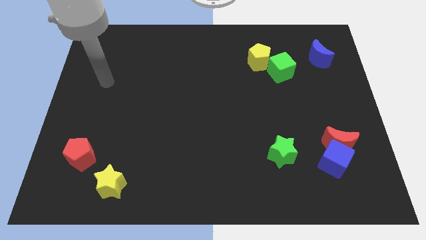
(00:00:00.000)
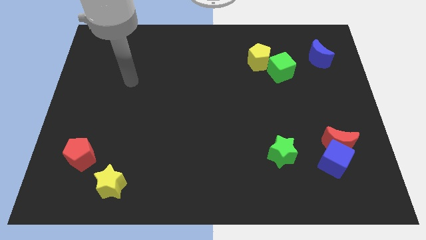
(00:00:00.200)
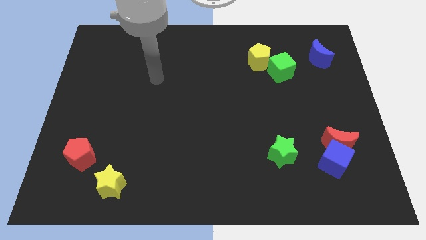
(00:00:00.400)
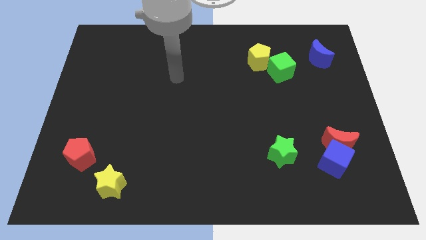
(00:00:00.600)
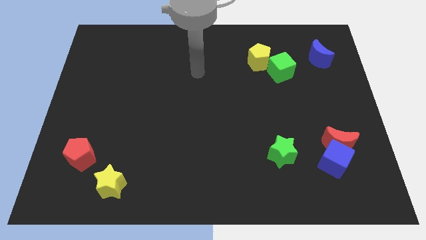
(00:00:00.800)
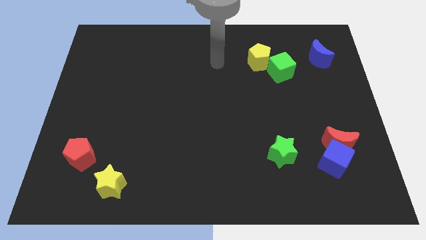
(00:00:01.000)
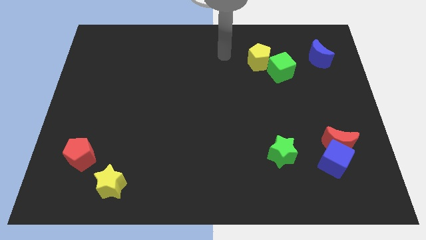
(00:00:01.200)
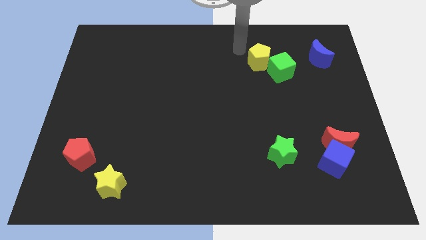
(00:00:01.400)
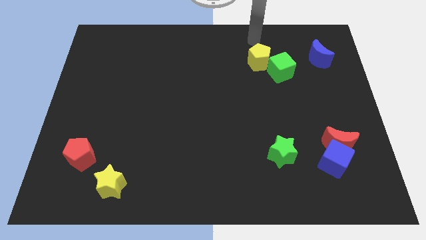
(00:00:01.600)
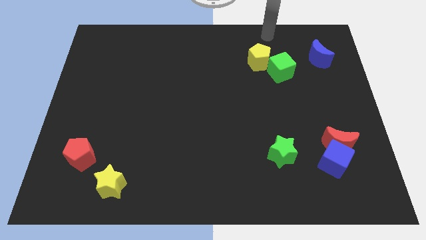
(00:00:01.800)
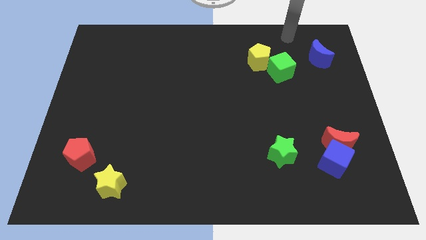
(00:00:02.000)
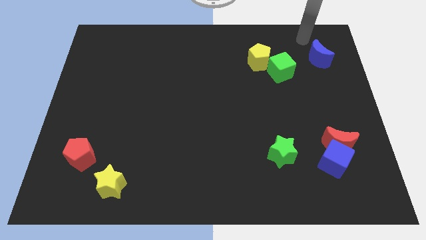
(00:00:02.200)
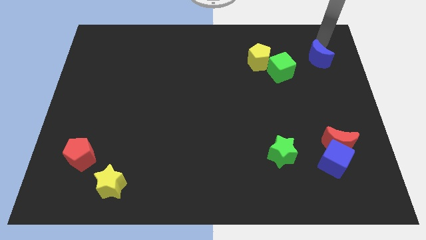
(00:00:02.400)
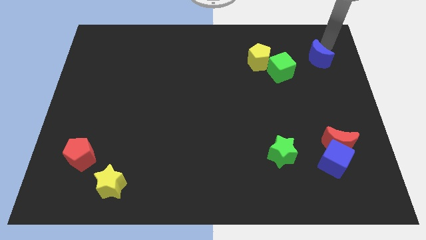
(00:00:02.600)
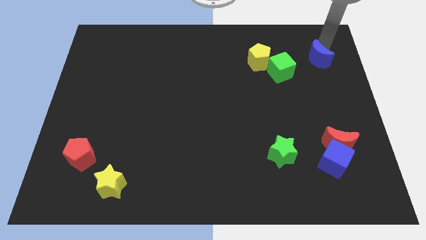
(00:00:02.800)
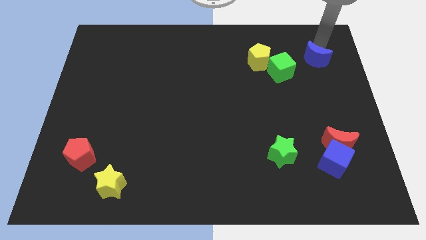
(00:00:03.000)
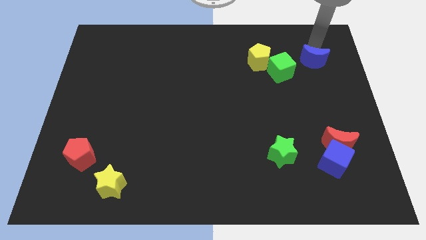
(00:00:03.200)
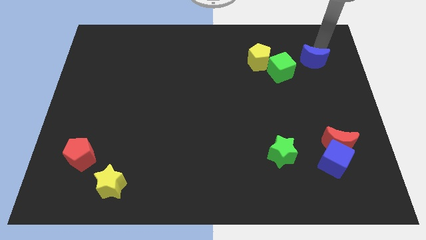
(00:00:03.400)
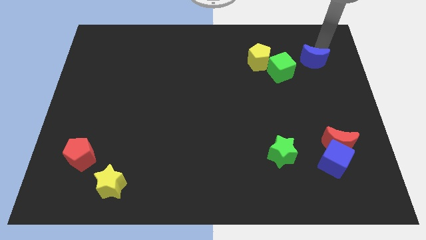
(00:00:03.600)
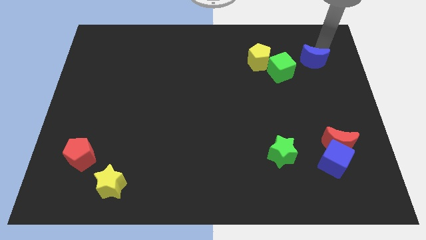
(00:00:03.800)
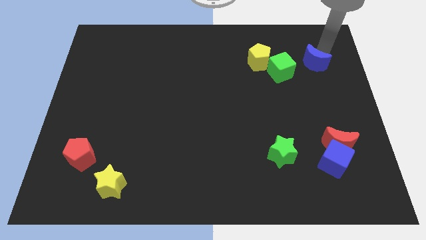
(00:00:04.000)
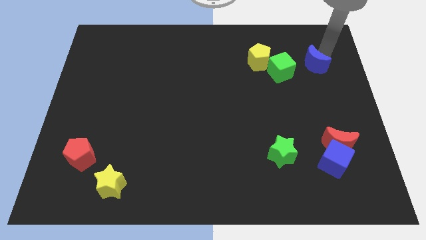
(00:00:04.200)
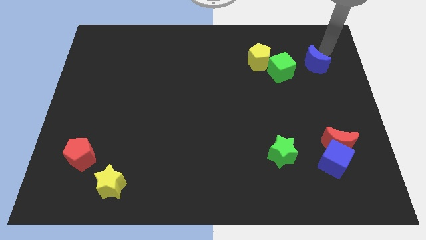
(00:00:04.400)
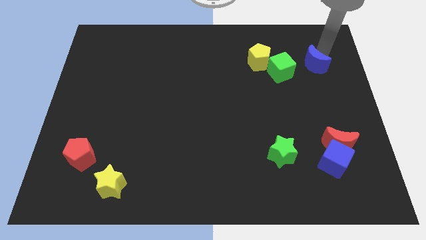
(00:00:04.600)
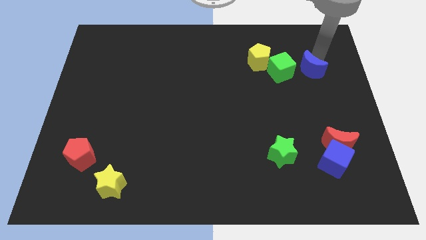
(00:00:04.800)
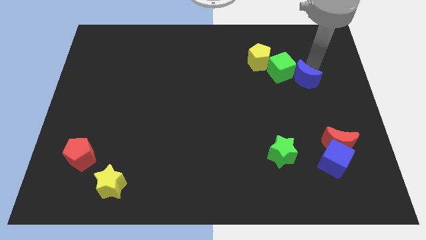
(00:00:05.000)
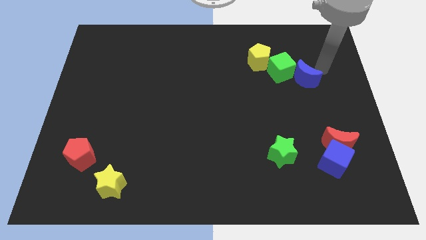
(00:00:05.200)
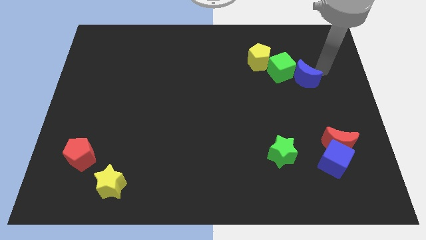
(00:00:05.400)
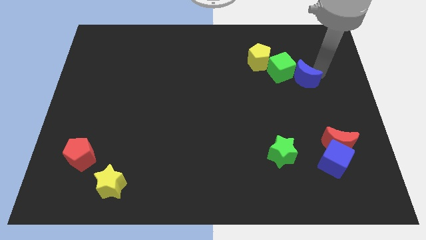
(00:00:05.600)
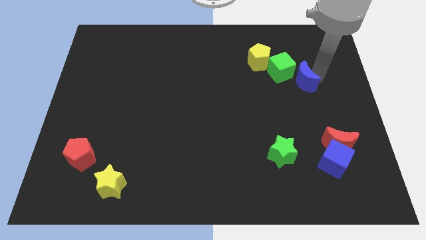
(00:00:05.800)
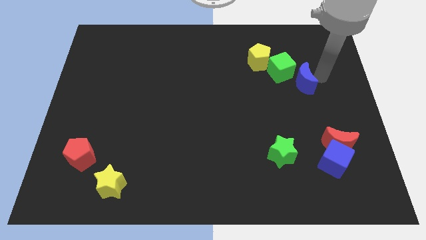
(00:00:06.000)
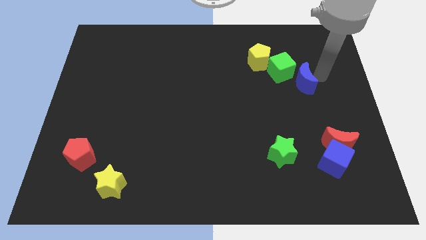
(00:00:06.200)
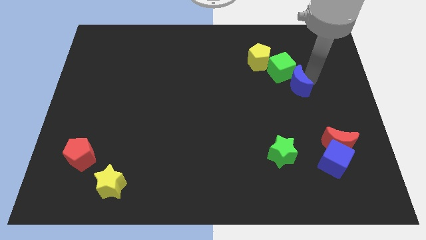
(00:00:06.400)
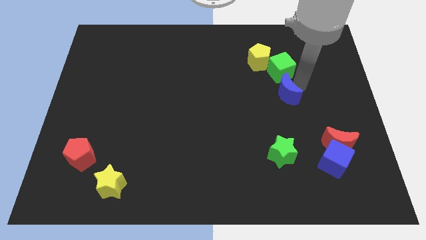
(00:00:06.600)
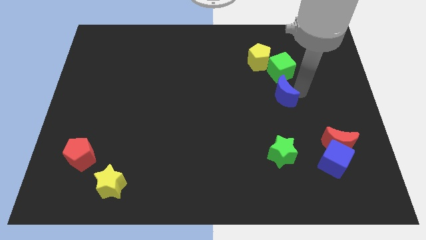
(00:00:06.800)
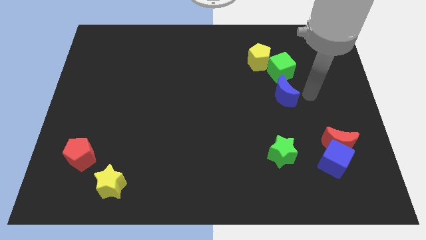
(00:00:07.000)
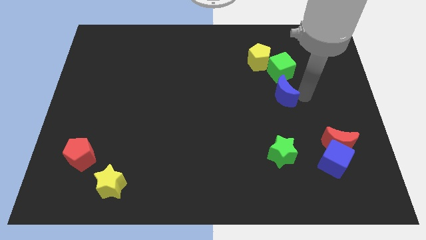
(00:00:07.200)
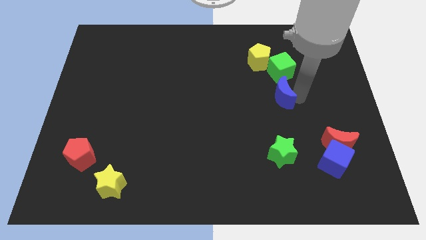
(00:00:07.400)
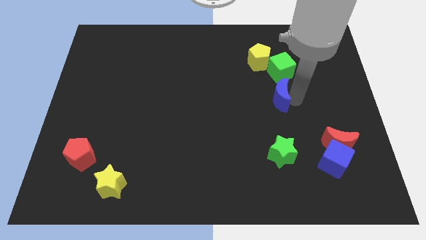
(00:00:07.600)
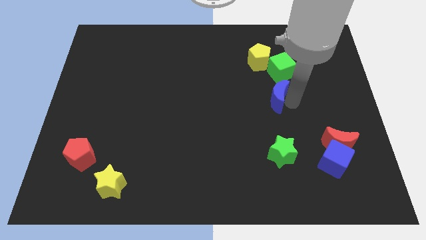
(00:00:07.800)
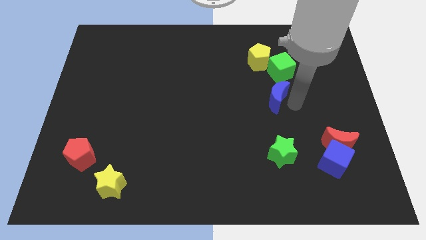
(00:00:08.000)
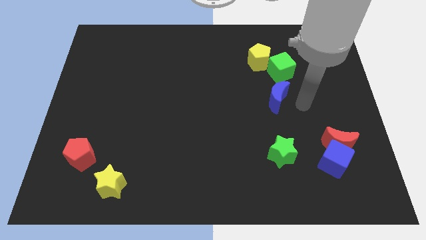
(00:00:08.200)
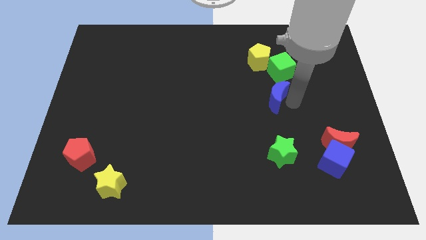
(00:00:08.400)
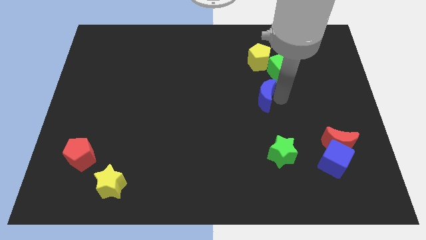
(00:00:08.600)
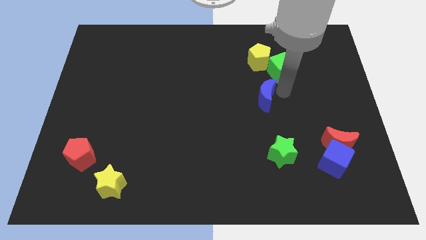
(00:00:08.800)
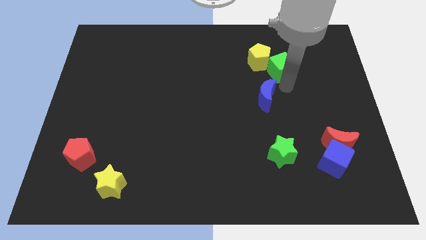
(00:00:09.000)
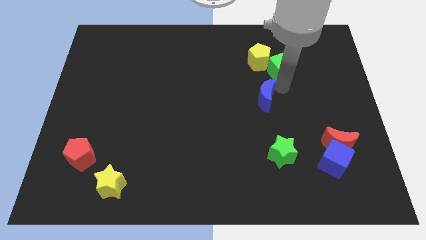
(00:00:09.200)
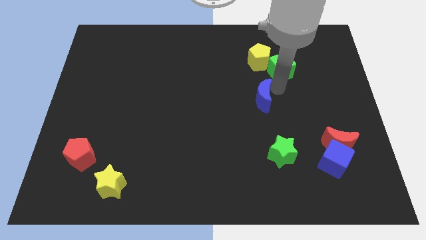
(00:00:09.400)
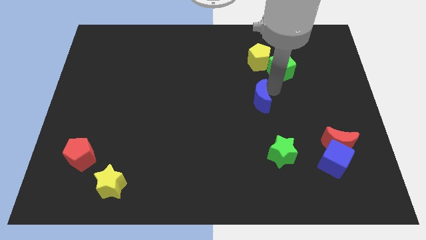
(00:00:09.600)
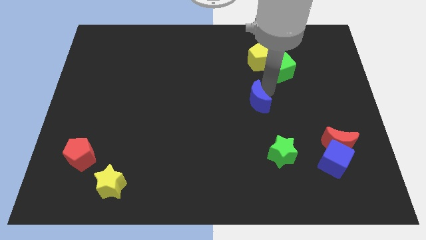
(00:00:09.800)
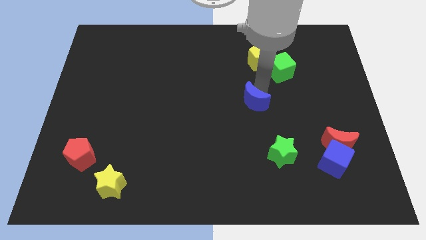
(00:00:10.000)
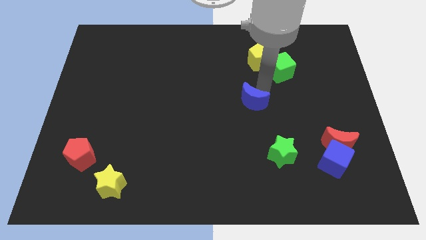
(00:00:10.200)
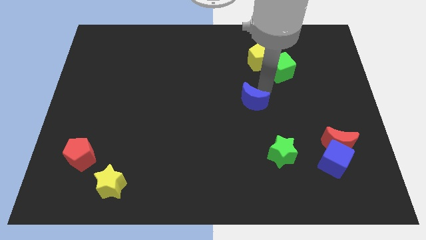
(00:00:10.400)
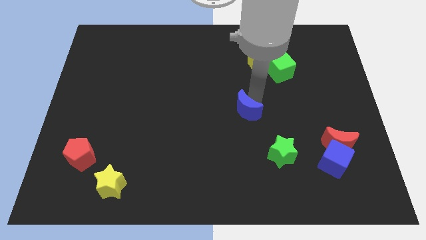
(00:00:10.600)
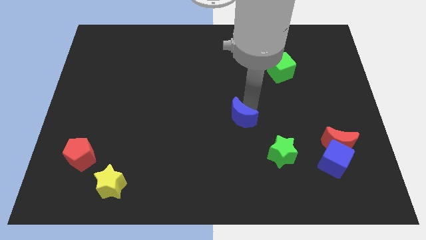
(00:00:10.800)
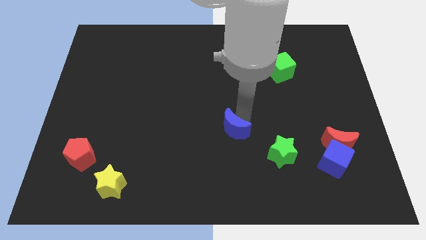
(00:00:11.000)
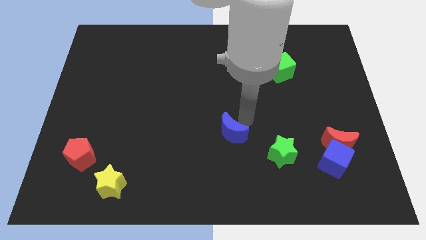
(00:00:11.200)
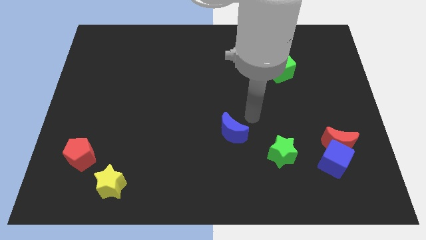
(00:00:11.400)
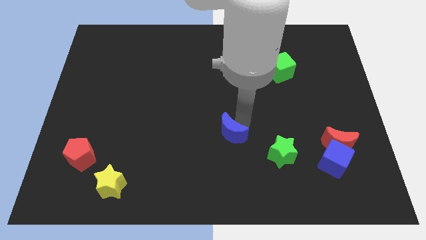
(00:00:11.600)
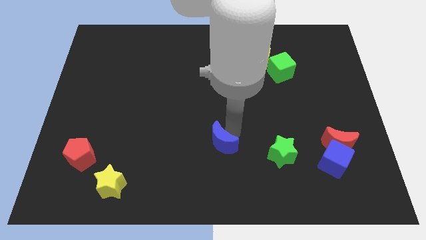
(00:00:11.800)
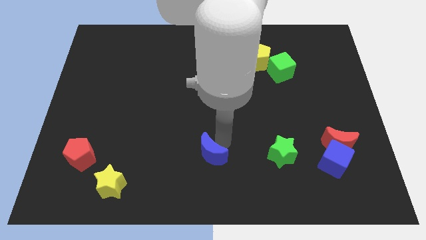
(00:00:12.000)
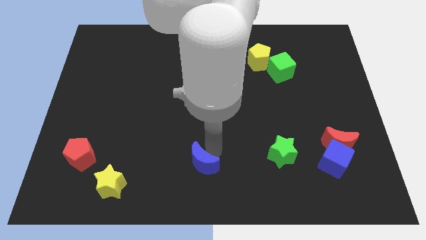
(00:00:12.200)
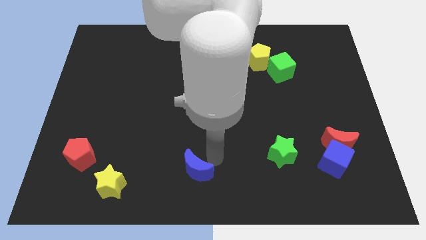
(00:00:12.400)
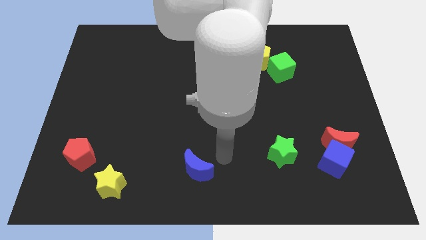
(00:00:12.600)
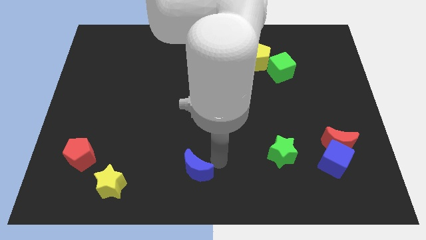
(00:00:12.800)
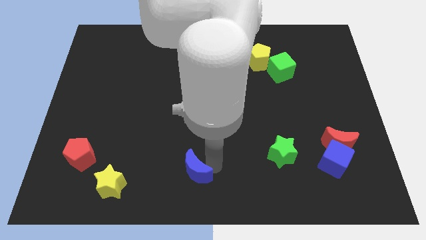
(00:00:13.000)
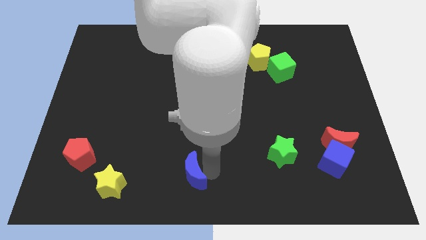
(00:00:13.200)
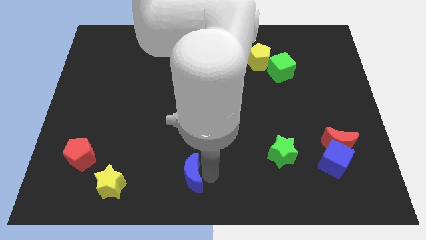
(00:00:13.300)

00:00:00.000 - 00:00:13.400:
put the blue moon right of the yellow star

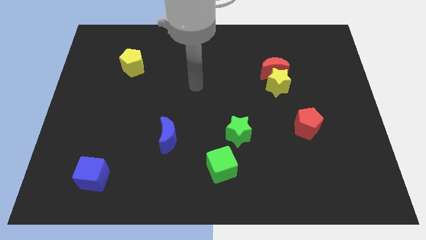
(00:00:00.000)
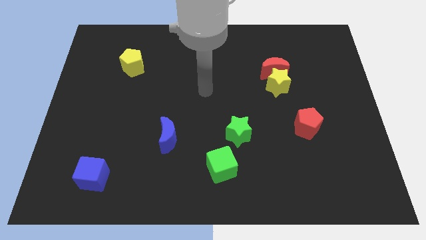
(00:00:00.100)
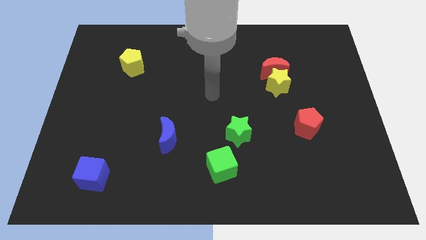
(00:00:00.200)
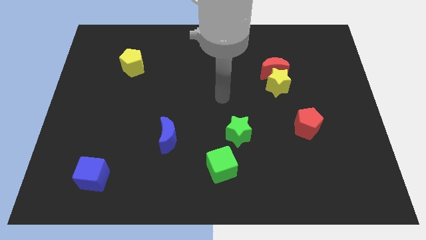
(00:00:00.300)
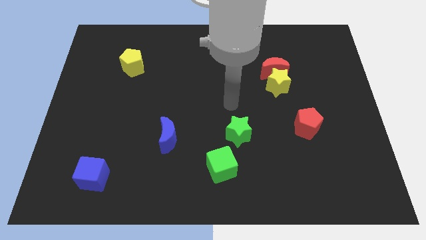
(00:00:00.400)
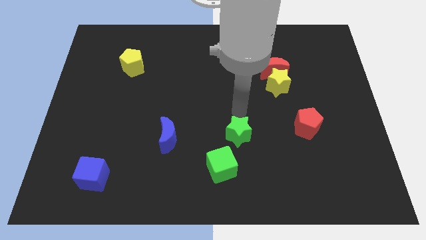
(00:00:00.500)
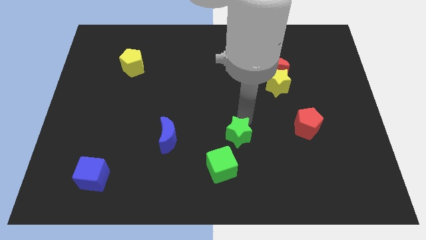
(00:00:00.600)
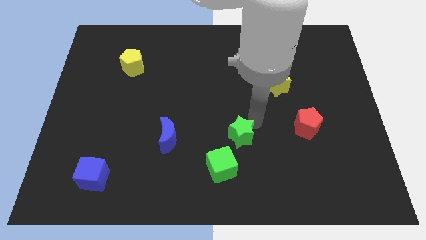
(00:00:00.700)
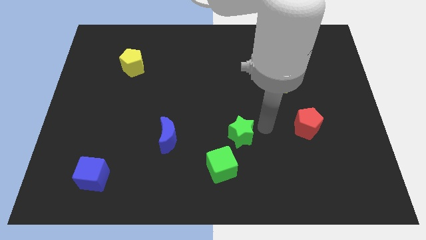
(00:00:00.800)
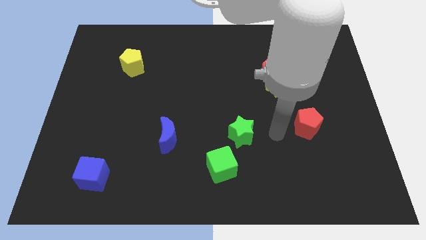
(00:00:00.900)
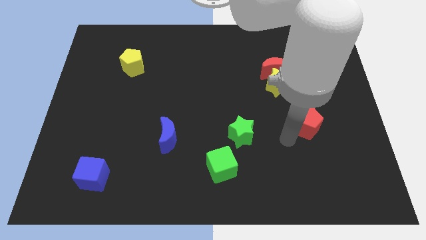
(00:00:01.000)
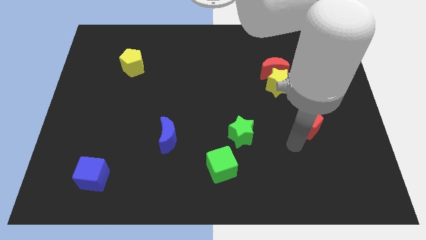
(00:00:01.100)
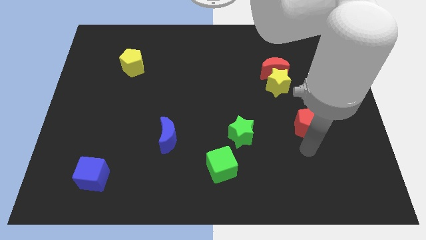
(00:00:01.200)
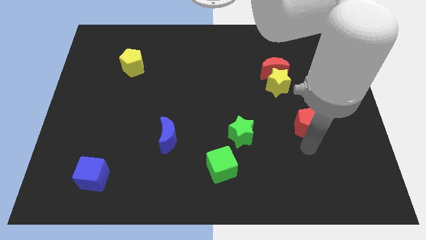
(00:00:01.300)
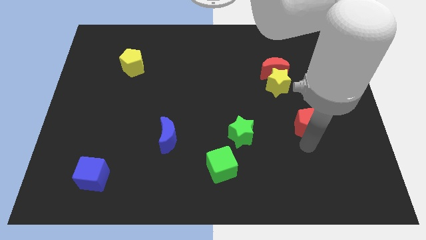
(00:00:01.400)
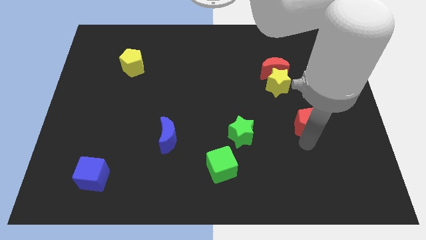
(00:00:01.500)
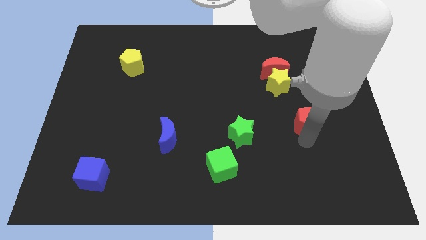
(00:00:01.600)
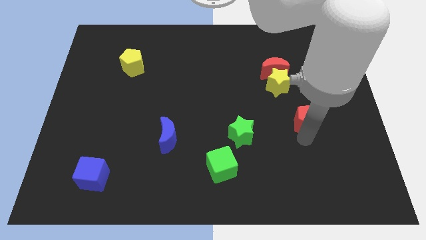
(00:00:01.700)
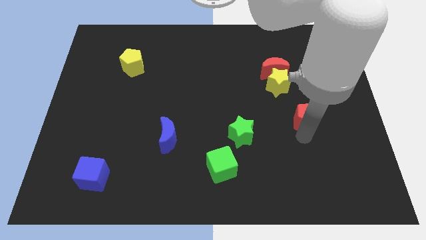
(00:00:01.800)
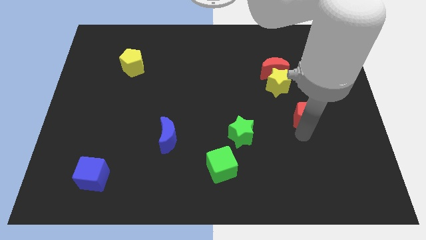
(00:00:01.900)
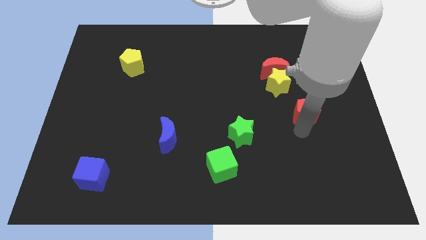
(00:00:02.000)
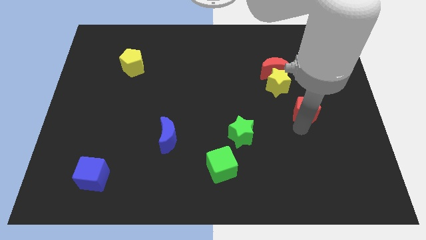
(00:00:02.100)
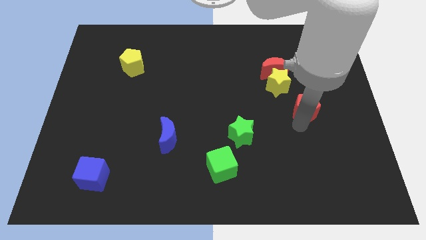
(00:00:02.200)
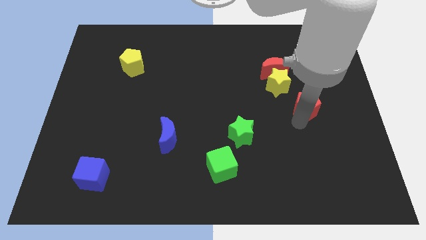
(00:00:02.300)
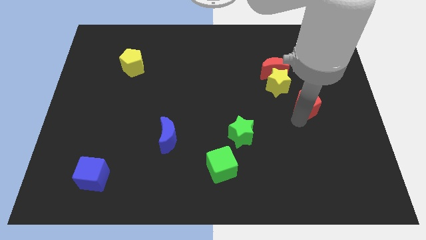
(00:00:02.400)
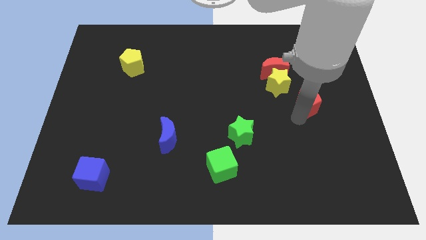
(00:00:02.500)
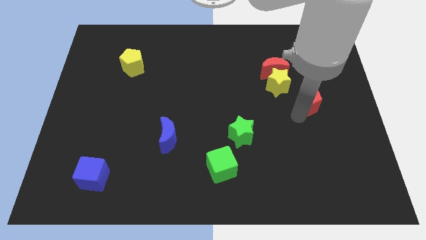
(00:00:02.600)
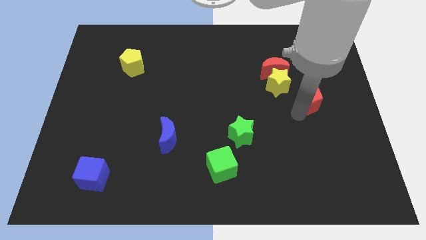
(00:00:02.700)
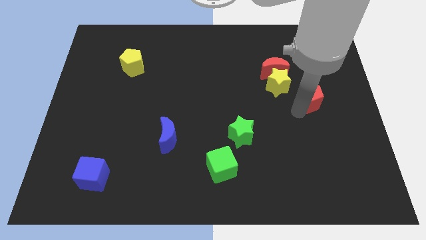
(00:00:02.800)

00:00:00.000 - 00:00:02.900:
move the red pentagon just right of the yellow star
